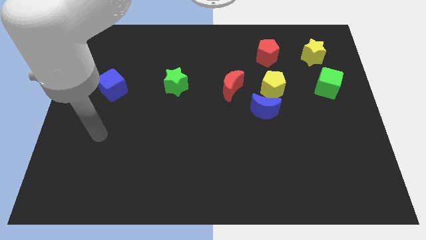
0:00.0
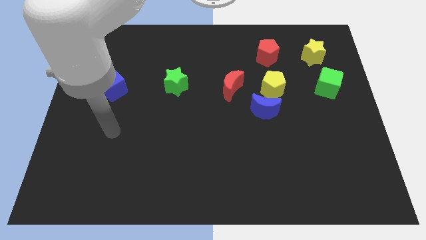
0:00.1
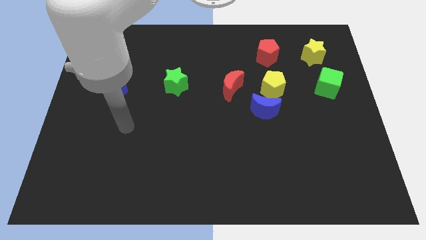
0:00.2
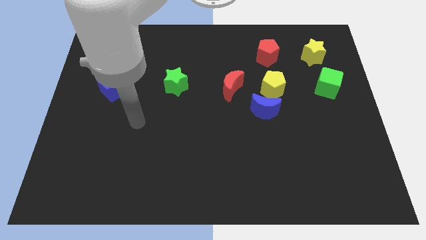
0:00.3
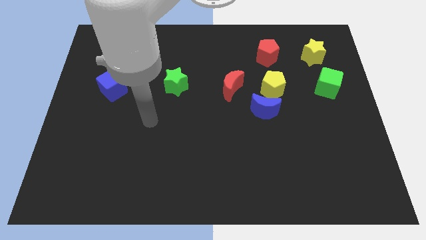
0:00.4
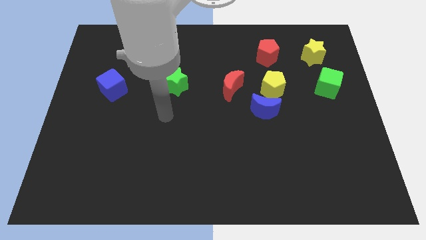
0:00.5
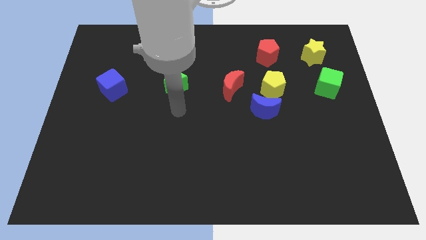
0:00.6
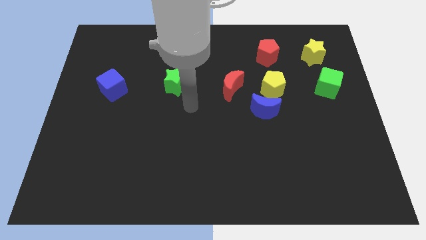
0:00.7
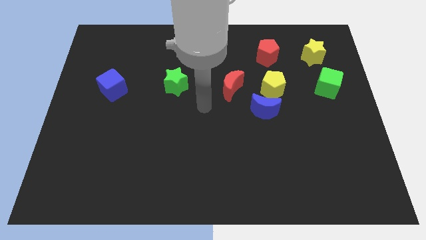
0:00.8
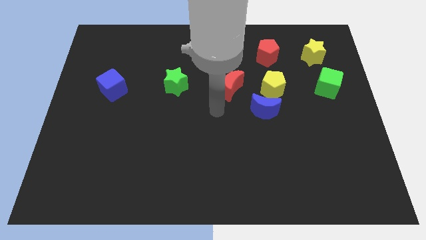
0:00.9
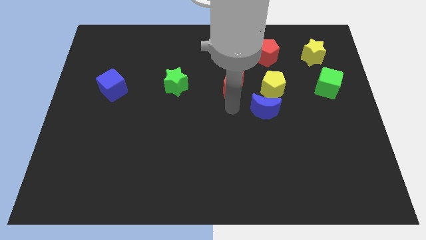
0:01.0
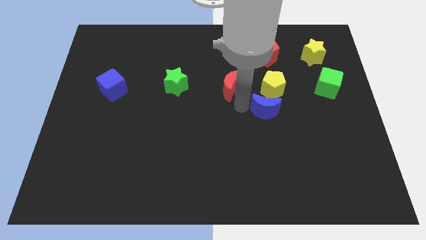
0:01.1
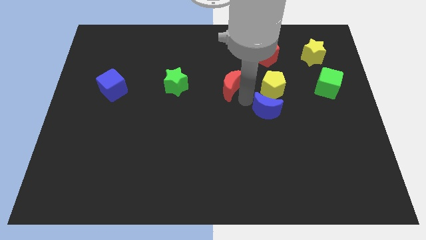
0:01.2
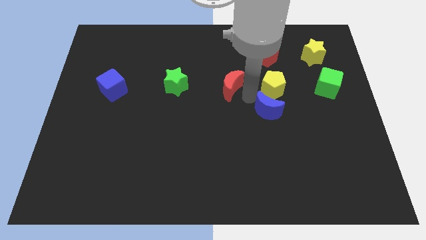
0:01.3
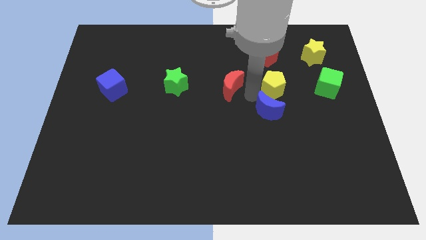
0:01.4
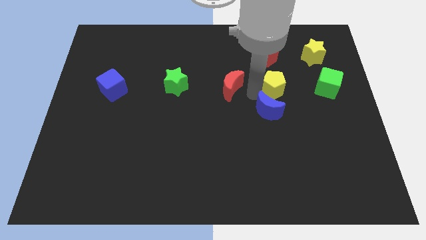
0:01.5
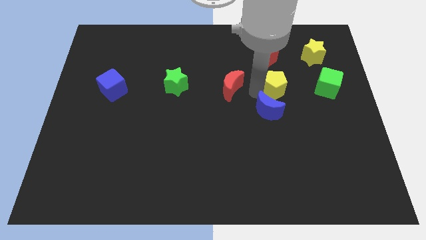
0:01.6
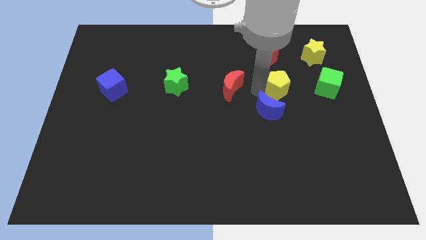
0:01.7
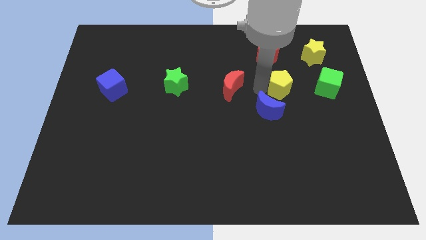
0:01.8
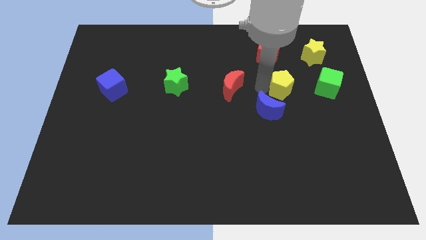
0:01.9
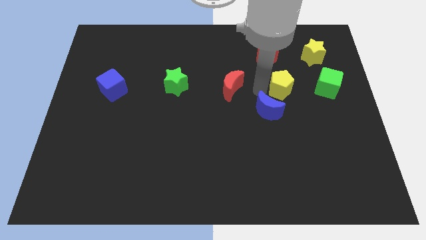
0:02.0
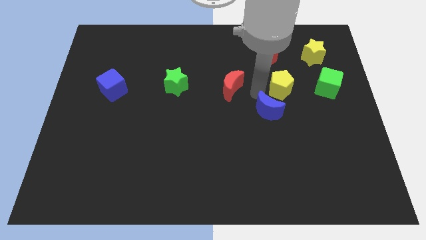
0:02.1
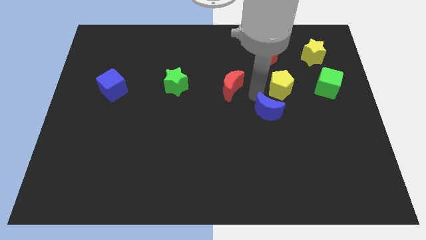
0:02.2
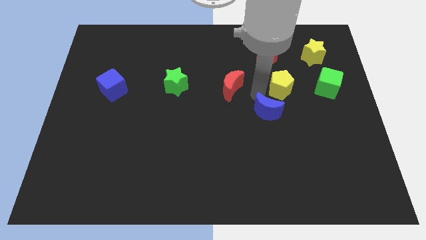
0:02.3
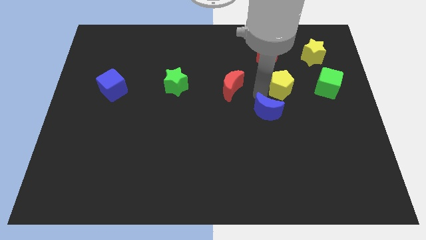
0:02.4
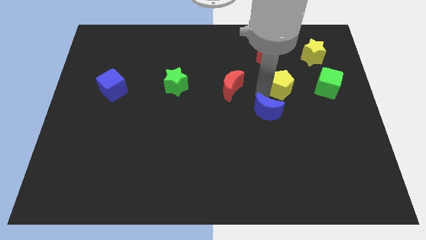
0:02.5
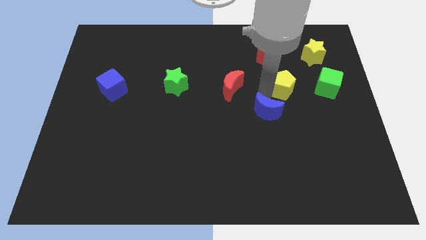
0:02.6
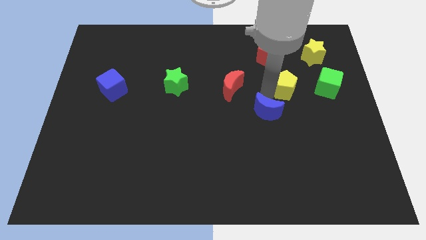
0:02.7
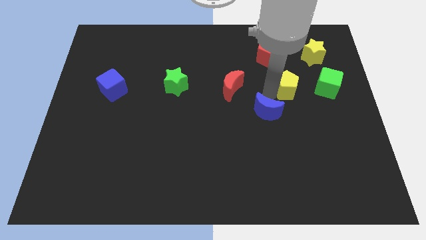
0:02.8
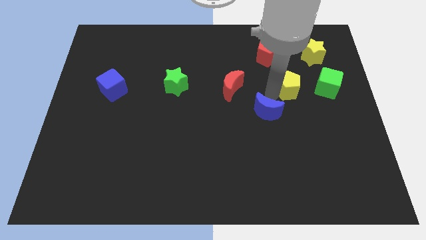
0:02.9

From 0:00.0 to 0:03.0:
separate the yellow pentagon from the blue moon and red moon

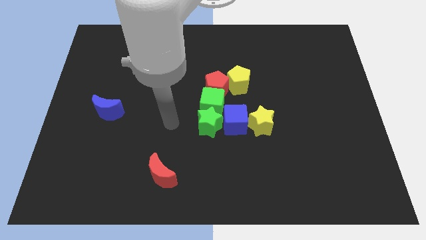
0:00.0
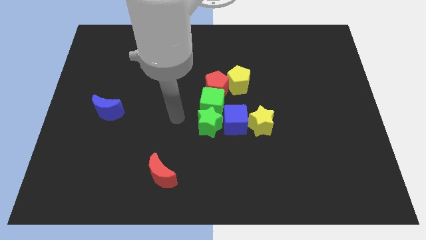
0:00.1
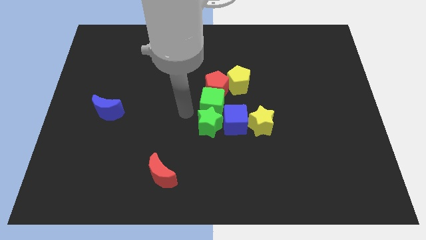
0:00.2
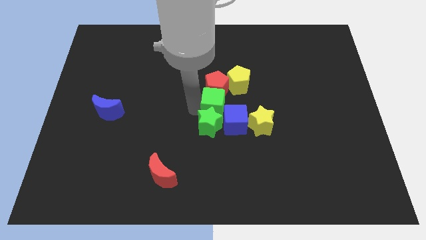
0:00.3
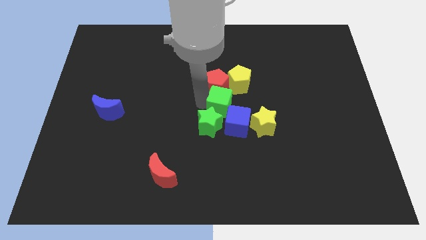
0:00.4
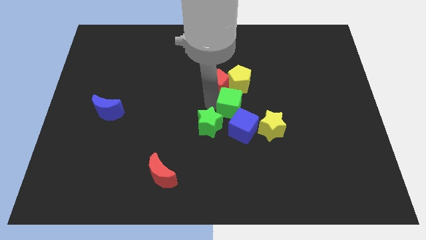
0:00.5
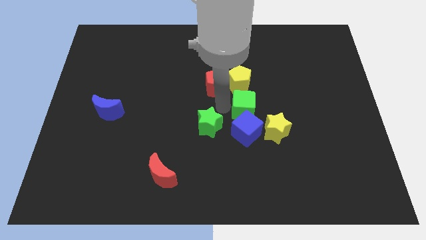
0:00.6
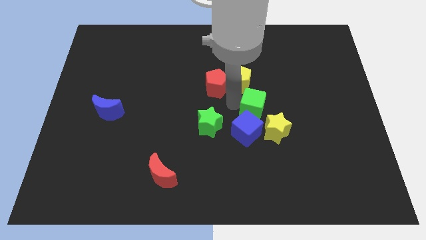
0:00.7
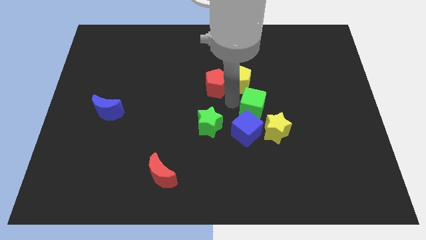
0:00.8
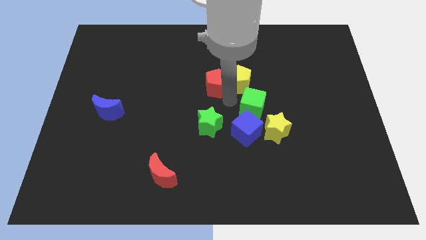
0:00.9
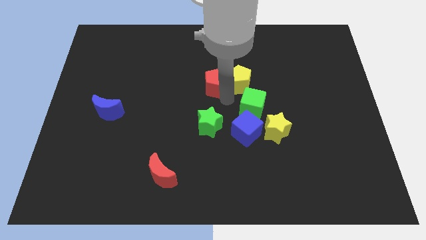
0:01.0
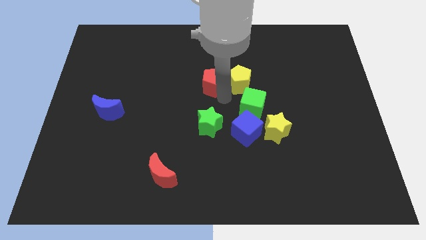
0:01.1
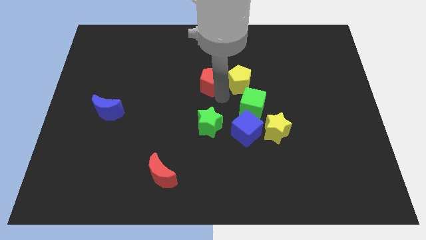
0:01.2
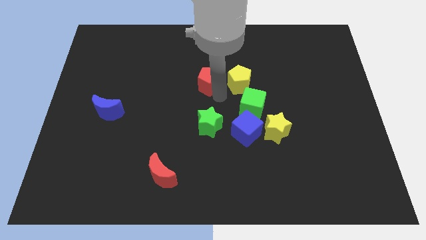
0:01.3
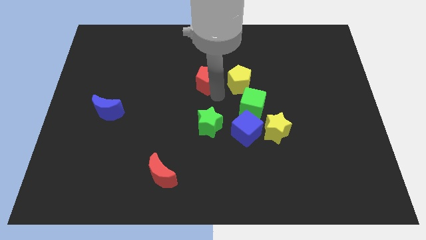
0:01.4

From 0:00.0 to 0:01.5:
separate the red pentagon from the green cube and yellow pentagon

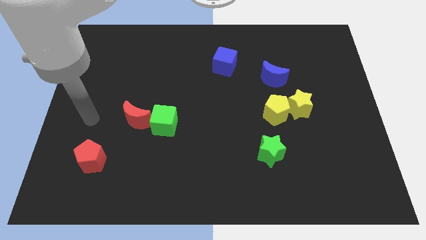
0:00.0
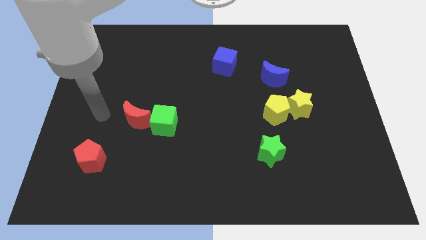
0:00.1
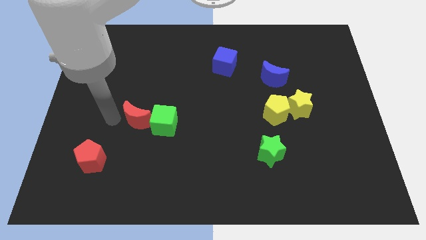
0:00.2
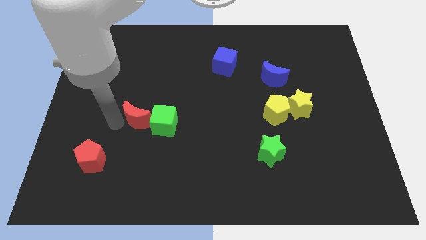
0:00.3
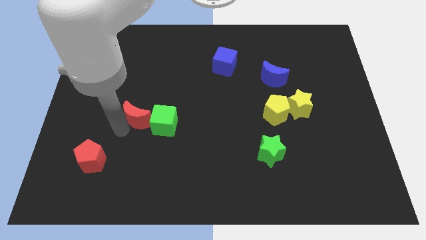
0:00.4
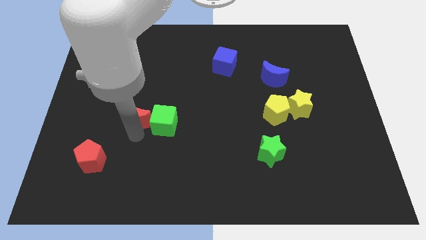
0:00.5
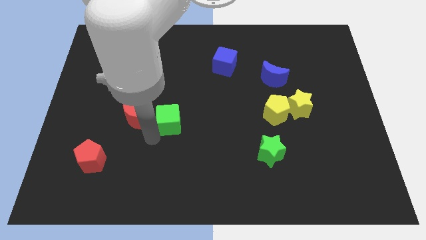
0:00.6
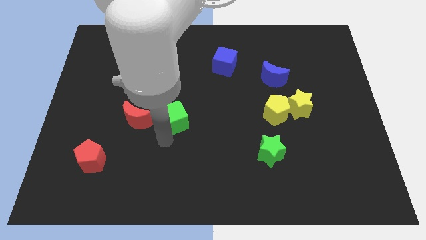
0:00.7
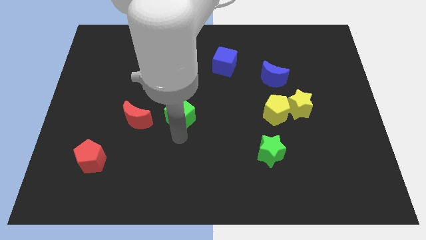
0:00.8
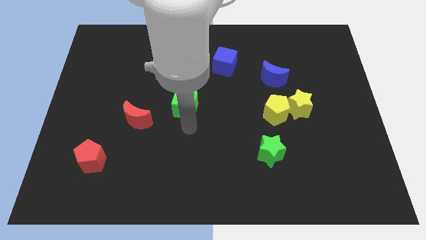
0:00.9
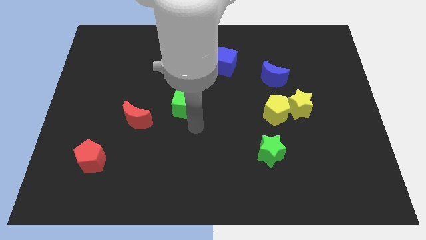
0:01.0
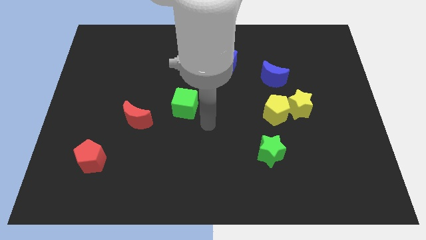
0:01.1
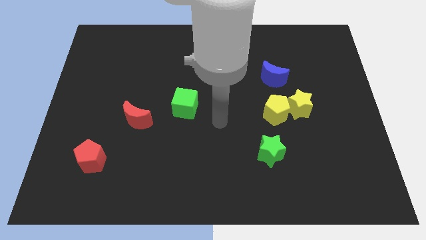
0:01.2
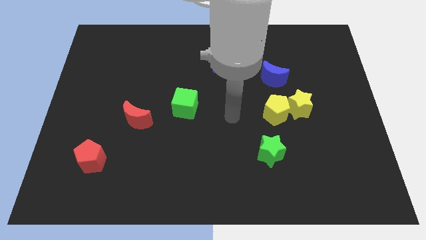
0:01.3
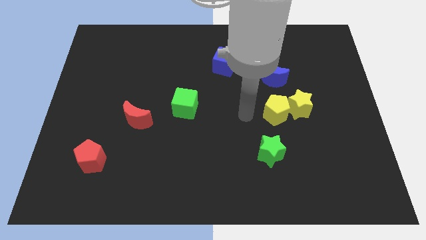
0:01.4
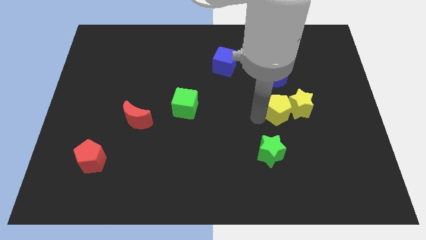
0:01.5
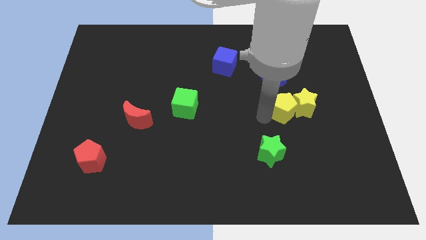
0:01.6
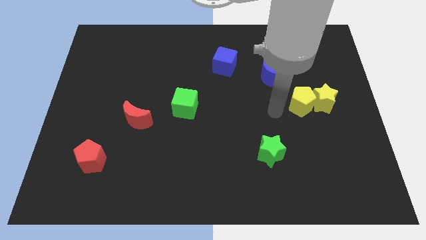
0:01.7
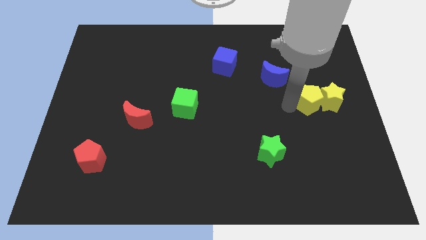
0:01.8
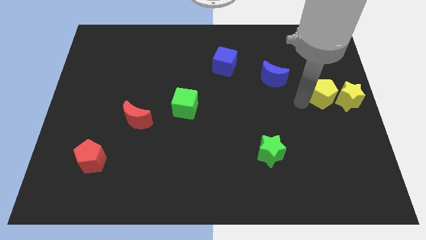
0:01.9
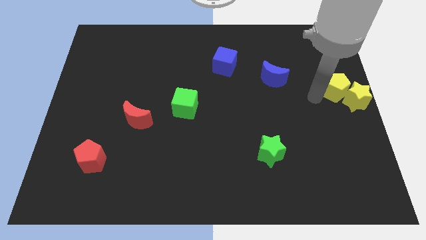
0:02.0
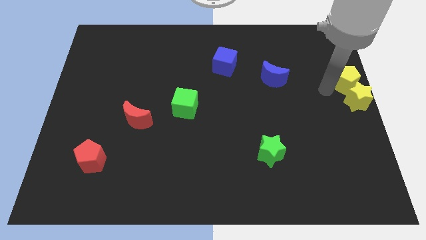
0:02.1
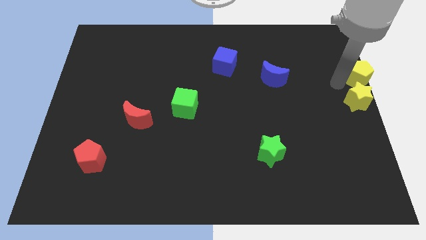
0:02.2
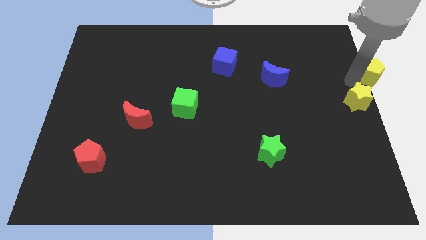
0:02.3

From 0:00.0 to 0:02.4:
separate the yellow star from the yellow pentagon

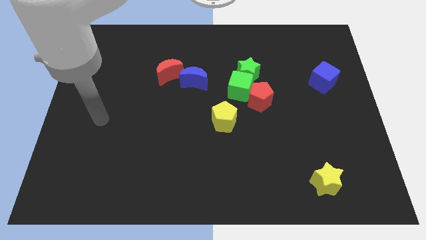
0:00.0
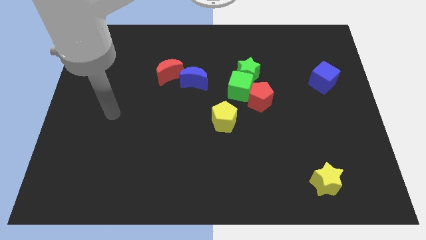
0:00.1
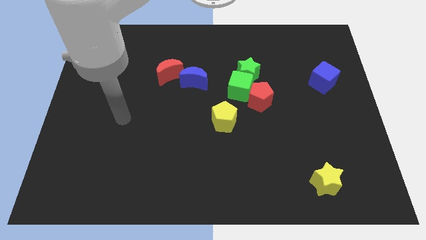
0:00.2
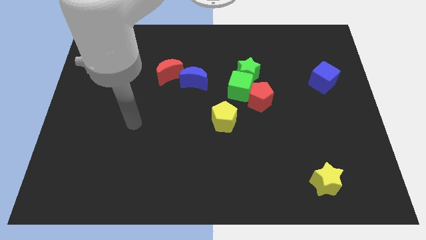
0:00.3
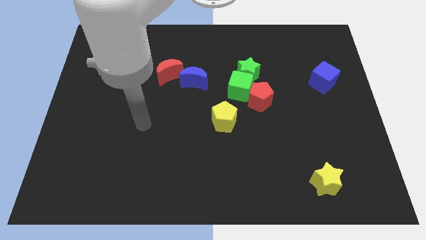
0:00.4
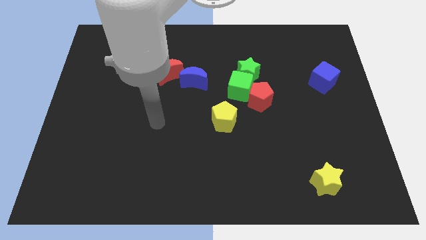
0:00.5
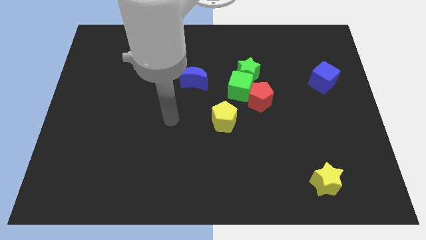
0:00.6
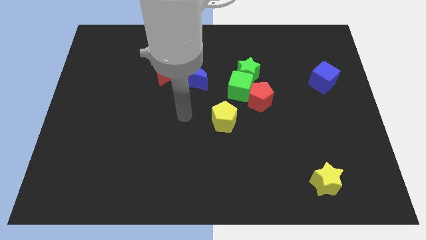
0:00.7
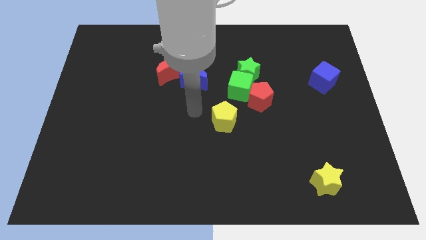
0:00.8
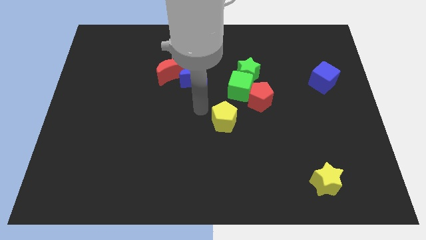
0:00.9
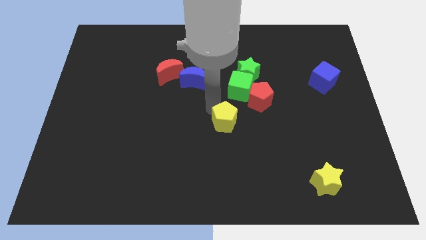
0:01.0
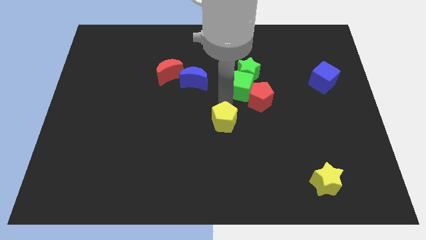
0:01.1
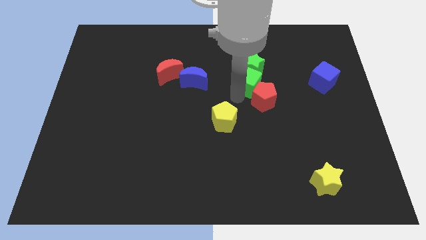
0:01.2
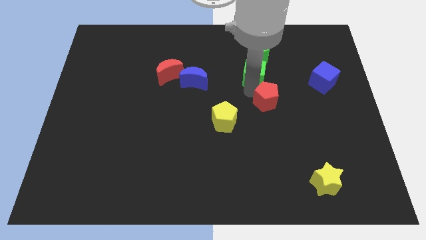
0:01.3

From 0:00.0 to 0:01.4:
pull the green star apart from the green cube and red pentagon

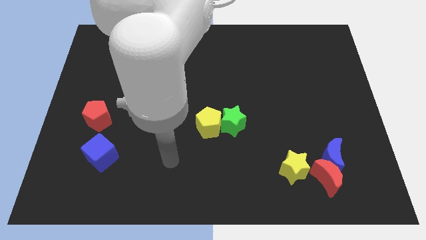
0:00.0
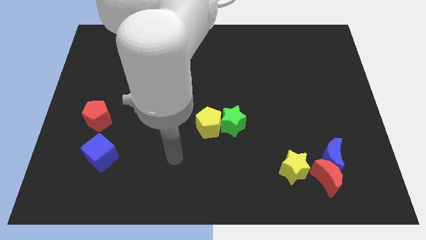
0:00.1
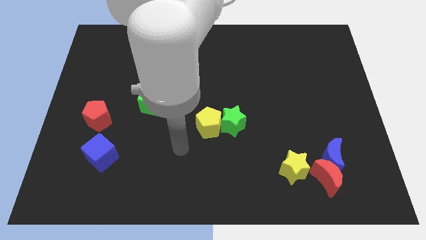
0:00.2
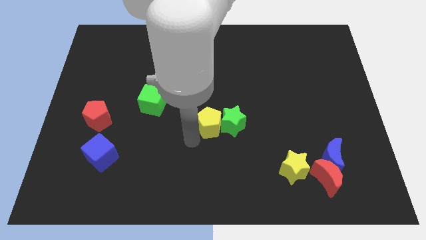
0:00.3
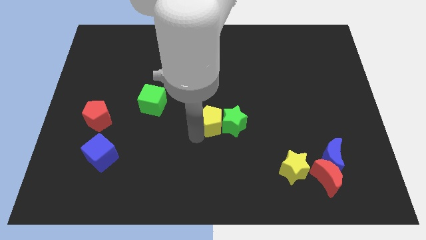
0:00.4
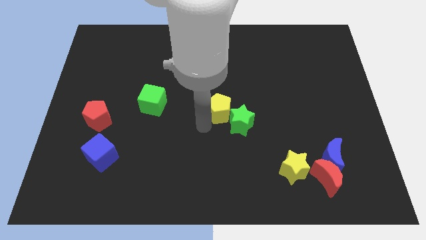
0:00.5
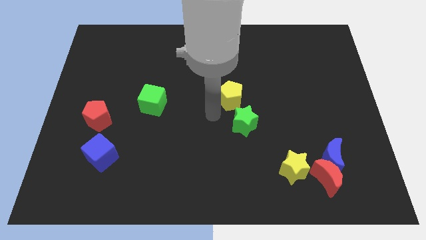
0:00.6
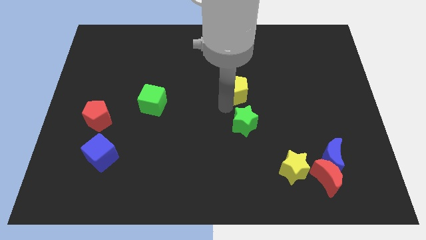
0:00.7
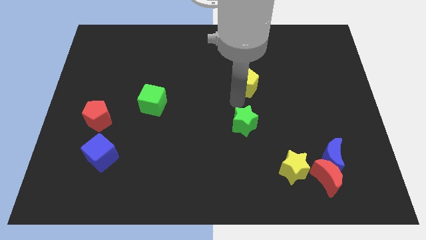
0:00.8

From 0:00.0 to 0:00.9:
move the green star away from the yellow pentagon
